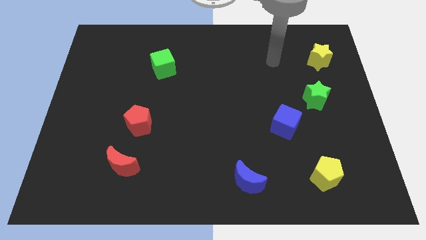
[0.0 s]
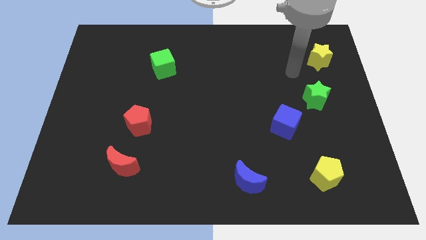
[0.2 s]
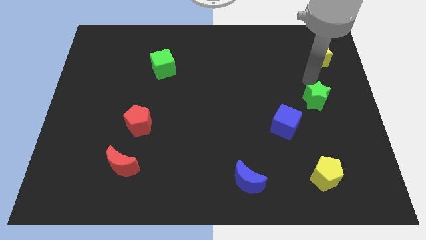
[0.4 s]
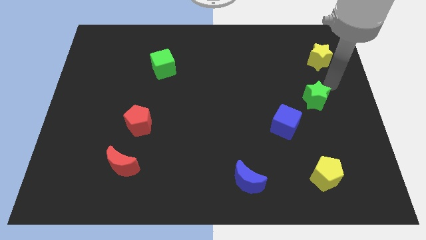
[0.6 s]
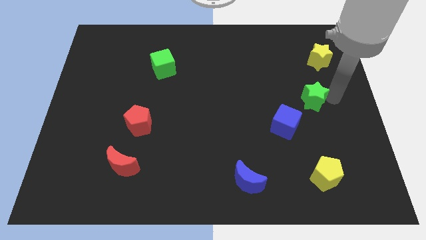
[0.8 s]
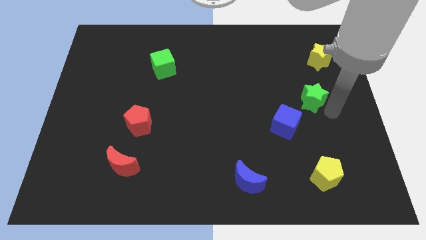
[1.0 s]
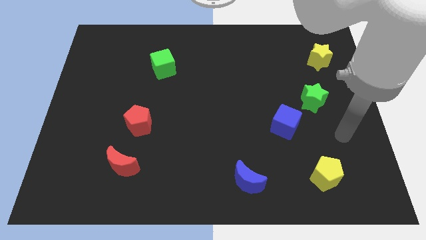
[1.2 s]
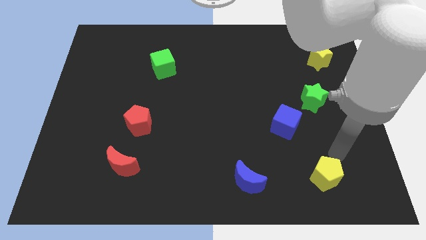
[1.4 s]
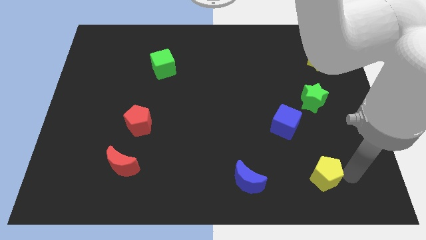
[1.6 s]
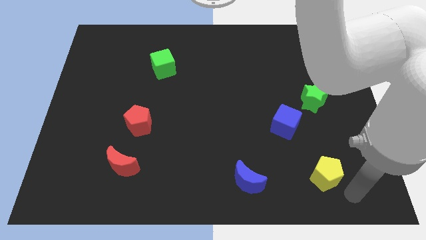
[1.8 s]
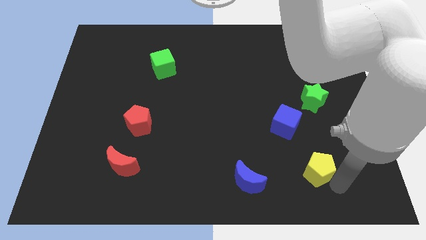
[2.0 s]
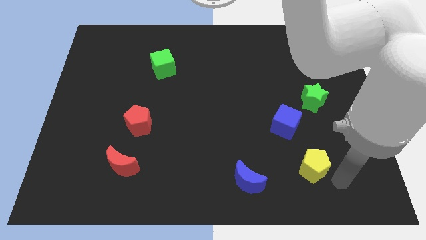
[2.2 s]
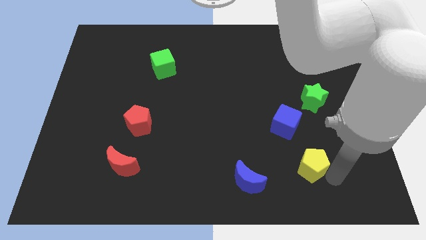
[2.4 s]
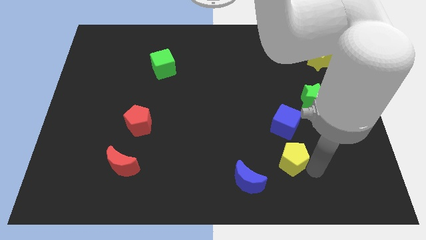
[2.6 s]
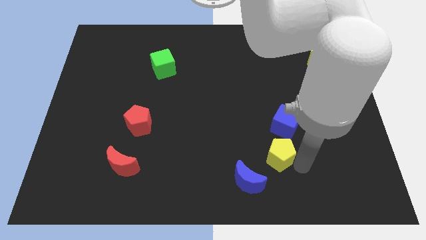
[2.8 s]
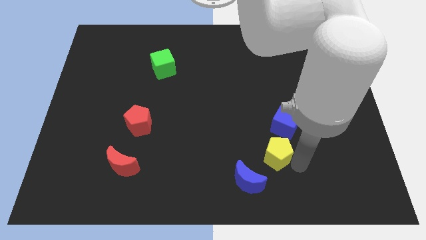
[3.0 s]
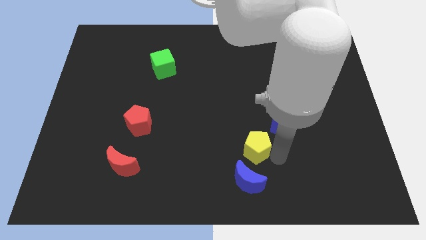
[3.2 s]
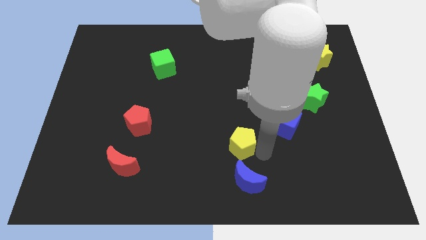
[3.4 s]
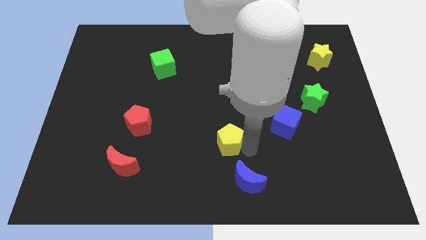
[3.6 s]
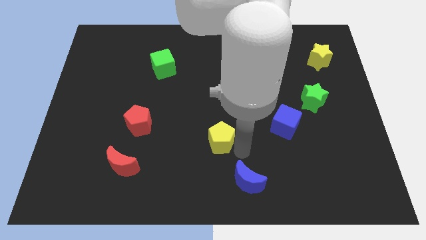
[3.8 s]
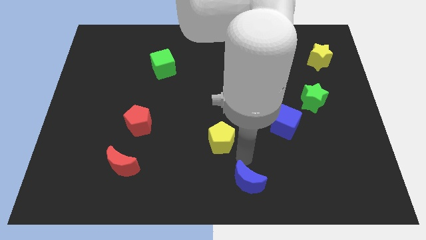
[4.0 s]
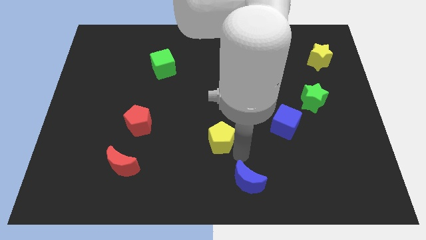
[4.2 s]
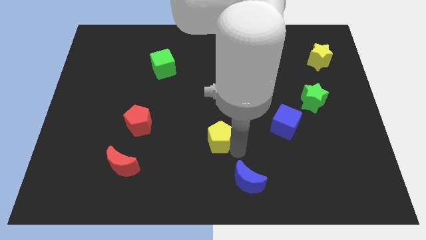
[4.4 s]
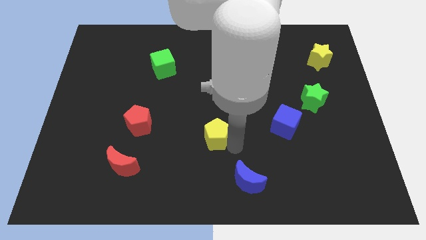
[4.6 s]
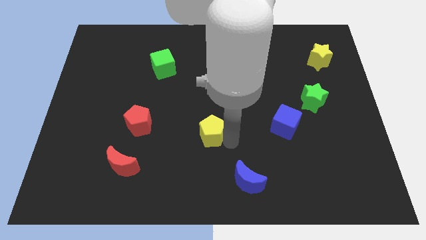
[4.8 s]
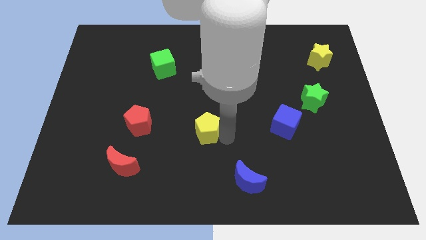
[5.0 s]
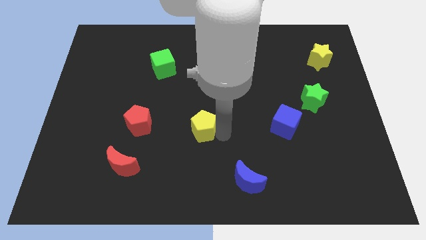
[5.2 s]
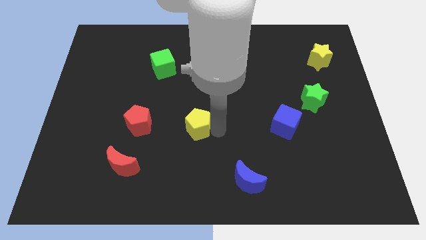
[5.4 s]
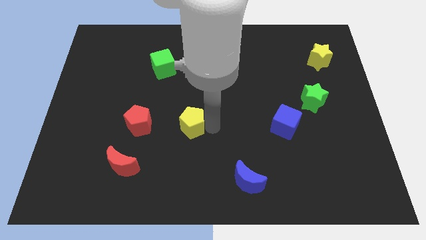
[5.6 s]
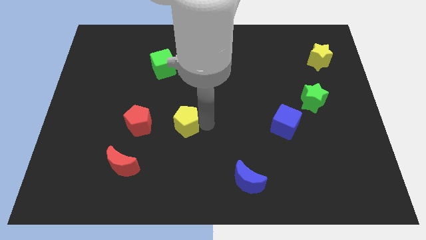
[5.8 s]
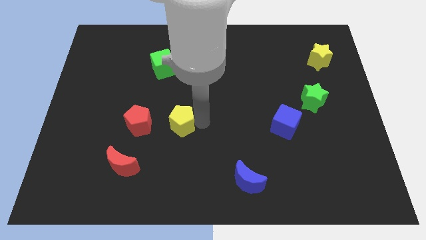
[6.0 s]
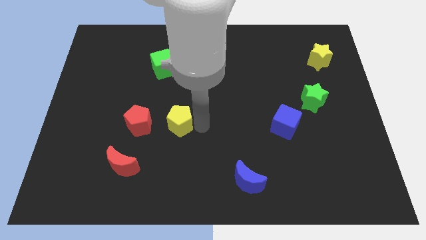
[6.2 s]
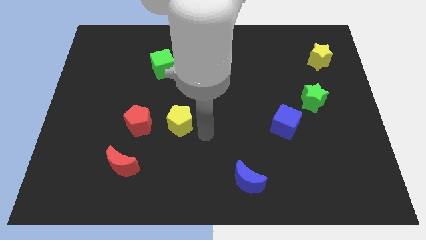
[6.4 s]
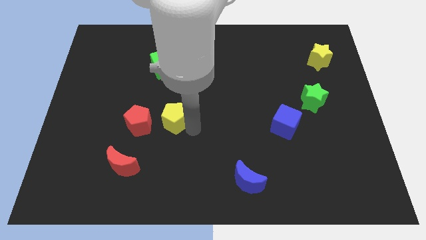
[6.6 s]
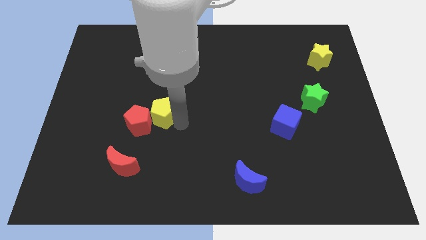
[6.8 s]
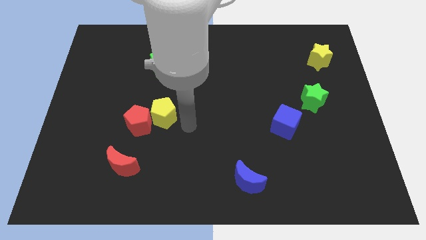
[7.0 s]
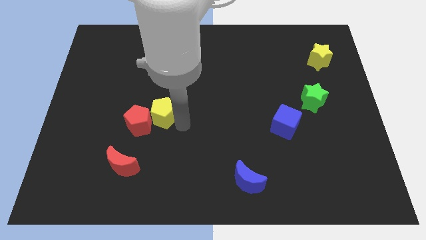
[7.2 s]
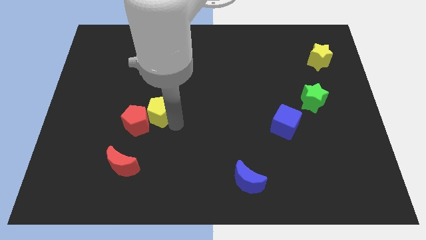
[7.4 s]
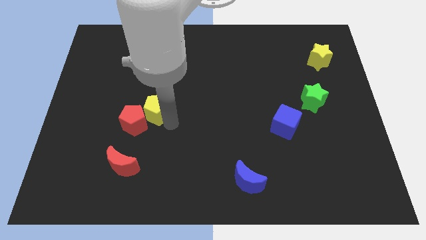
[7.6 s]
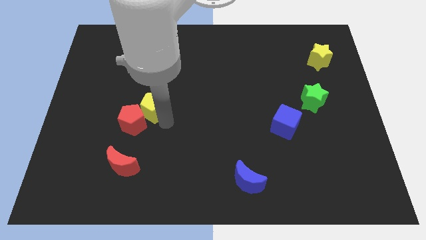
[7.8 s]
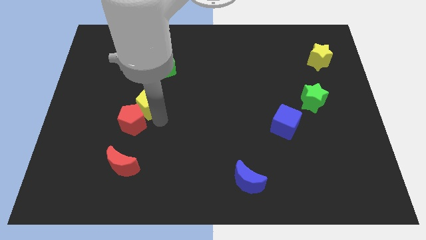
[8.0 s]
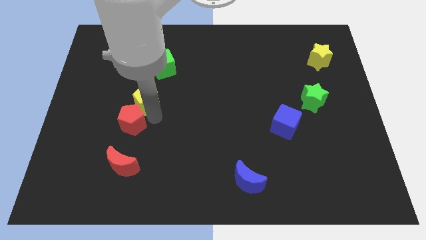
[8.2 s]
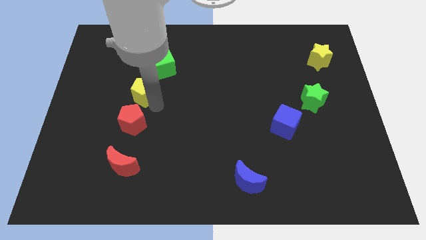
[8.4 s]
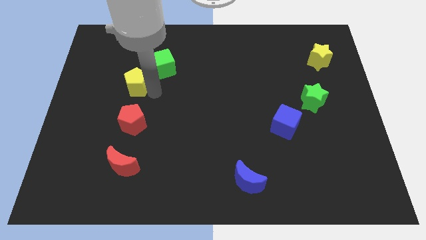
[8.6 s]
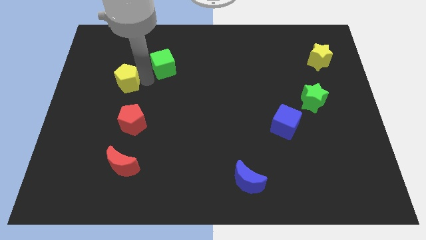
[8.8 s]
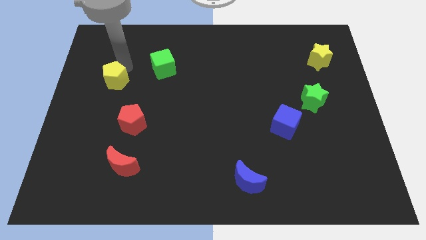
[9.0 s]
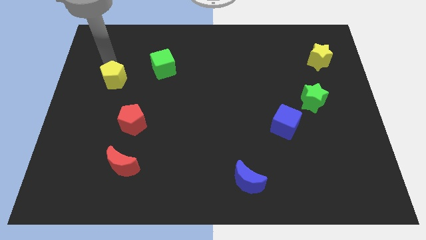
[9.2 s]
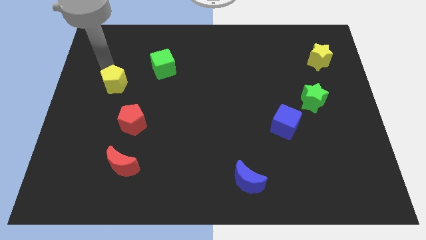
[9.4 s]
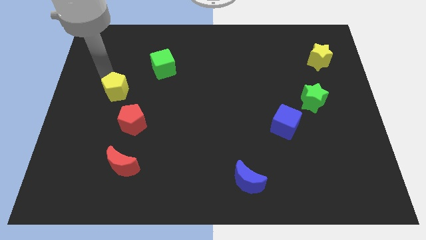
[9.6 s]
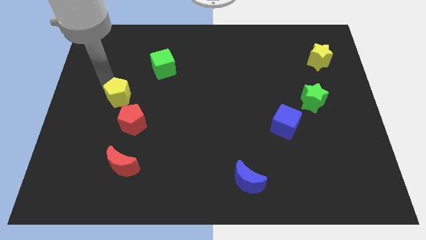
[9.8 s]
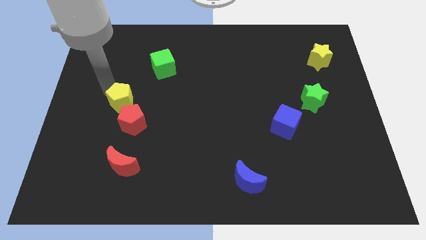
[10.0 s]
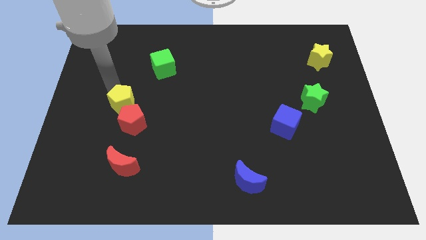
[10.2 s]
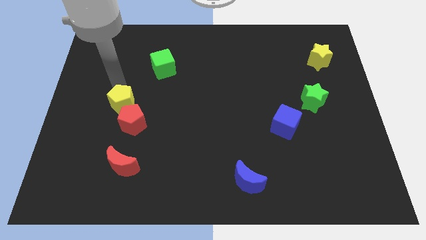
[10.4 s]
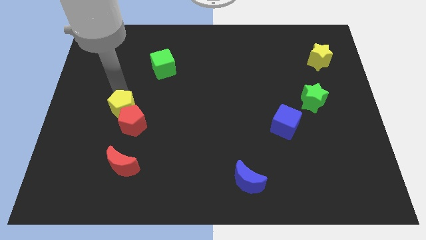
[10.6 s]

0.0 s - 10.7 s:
push the yellow pentagon to the top side of the red moon

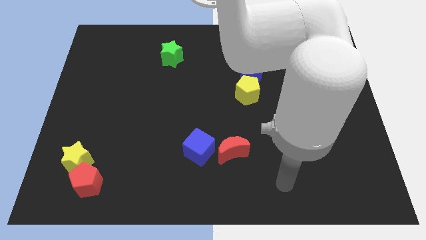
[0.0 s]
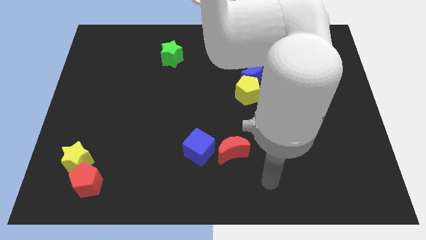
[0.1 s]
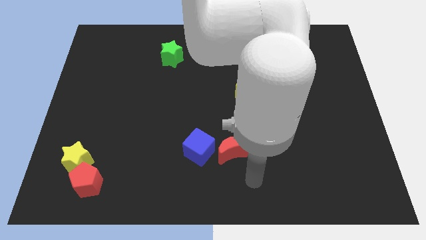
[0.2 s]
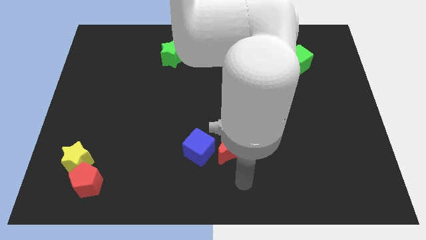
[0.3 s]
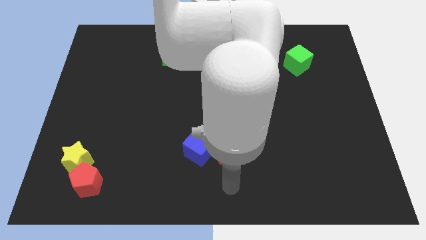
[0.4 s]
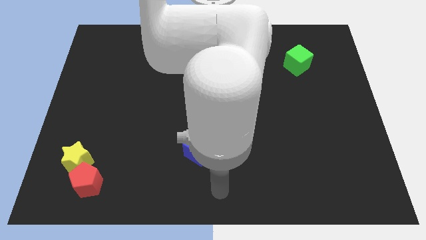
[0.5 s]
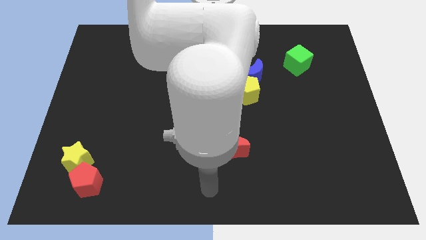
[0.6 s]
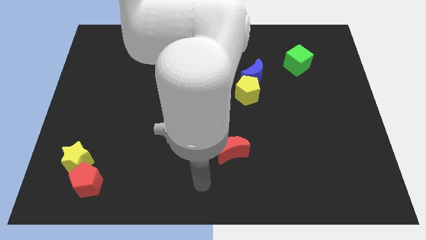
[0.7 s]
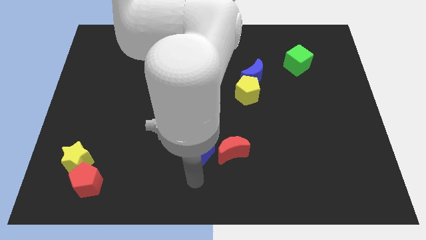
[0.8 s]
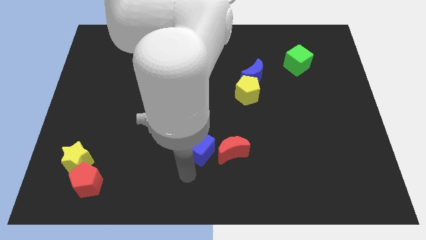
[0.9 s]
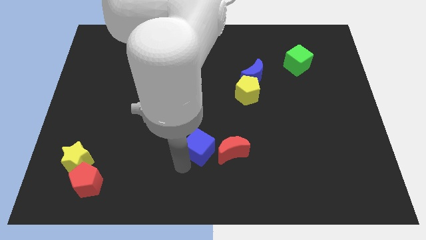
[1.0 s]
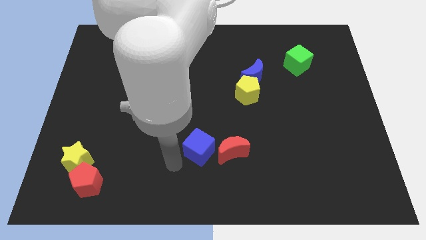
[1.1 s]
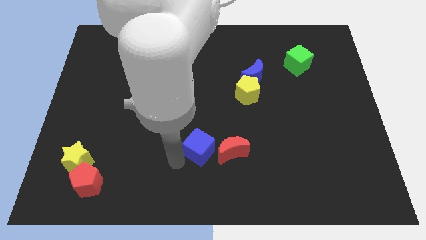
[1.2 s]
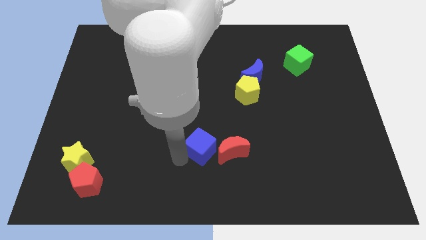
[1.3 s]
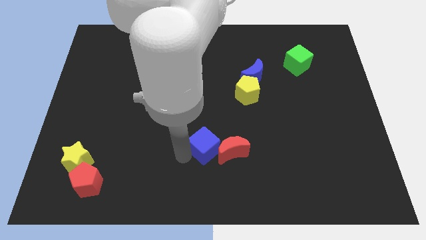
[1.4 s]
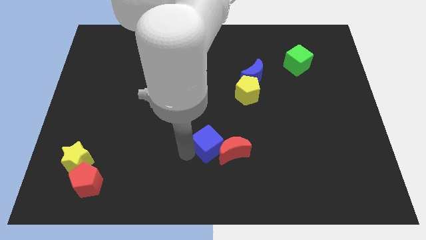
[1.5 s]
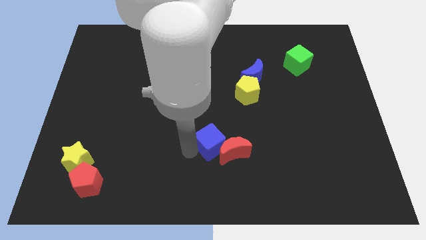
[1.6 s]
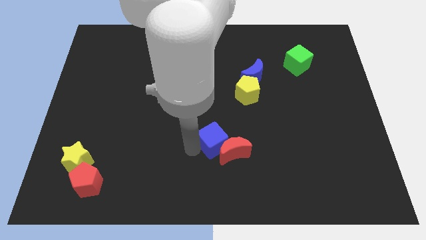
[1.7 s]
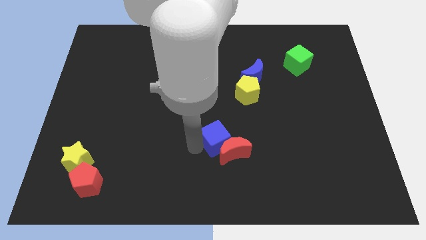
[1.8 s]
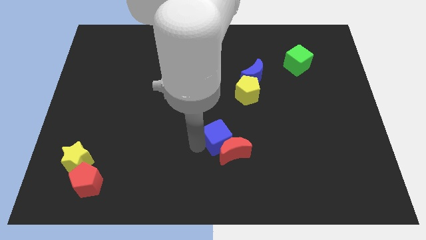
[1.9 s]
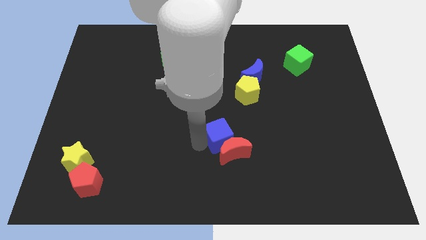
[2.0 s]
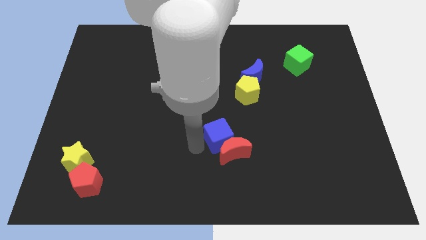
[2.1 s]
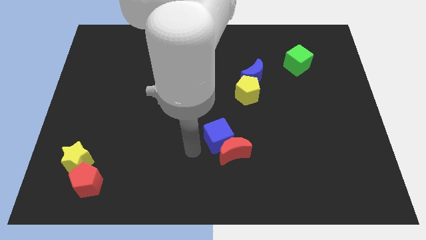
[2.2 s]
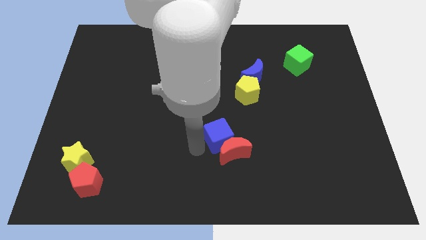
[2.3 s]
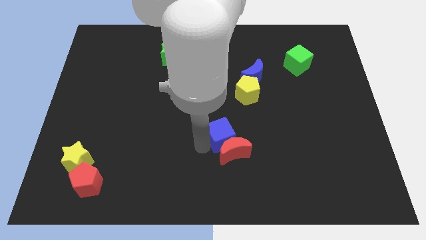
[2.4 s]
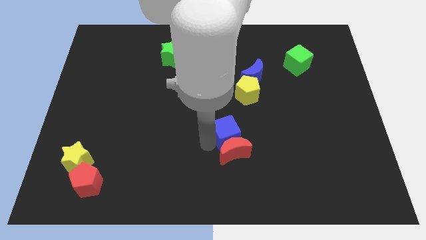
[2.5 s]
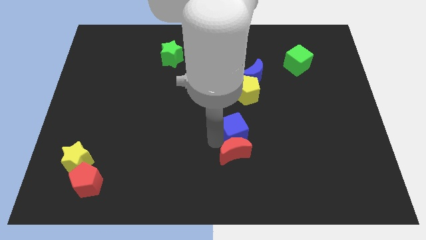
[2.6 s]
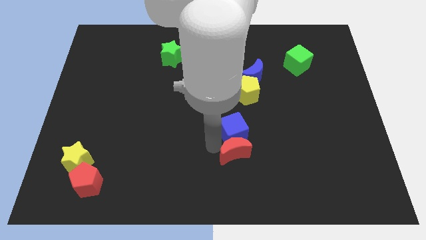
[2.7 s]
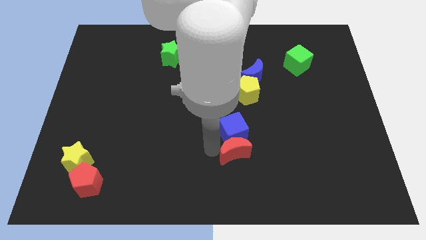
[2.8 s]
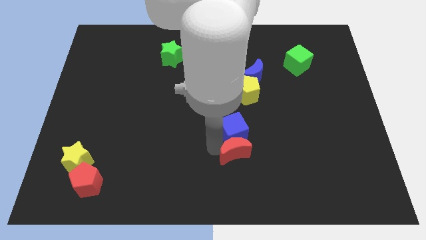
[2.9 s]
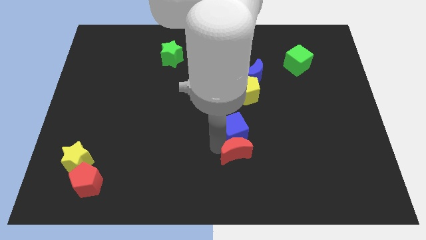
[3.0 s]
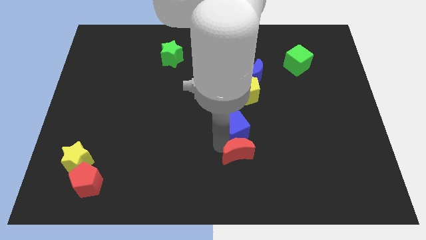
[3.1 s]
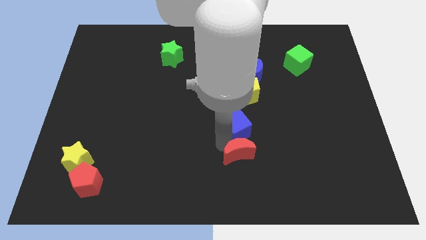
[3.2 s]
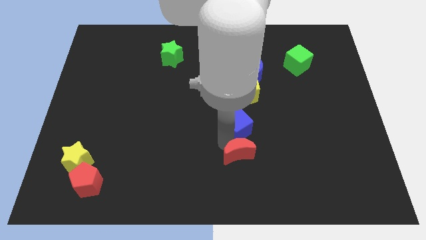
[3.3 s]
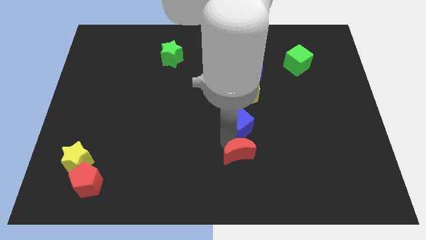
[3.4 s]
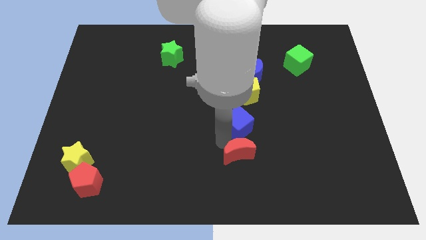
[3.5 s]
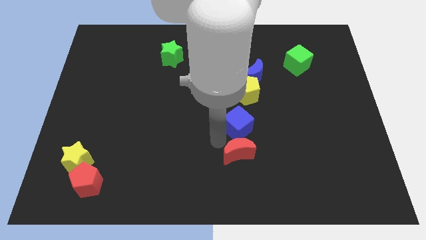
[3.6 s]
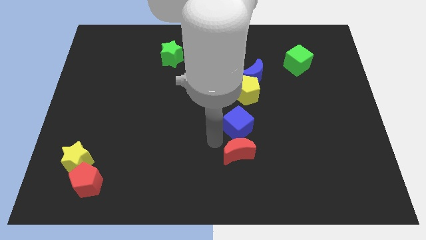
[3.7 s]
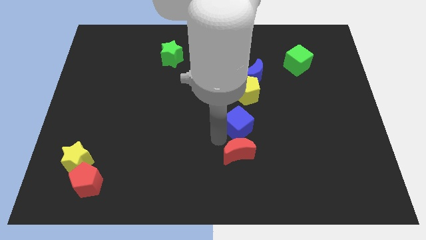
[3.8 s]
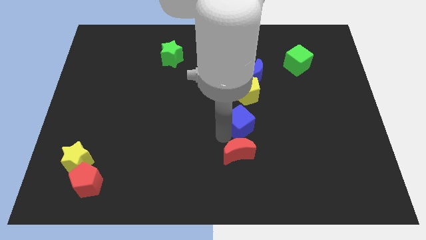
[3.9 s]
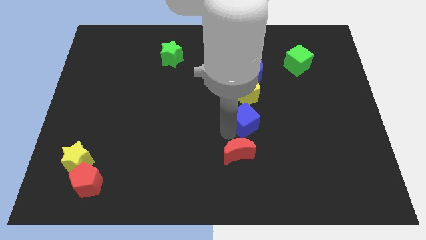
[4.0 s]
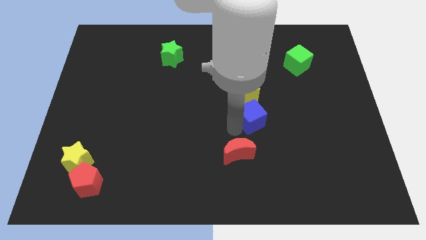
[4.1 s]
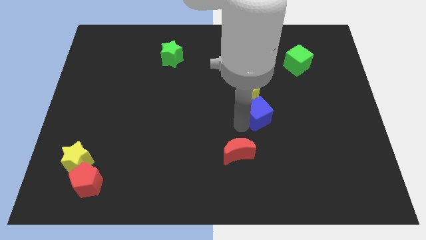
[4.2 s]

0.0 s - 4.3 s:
put the blue cube to the bottom right of the yellow pentagon
